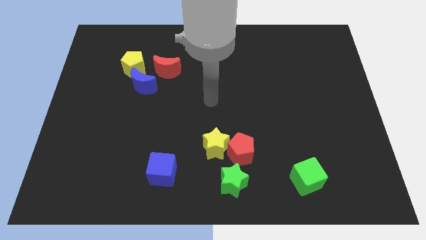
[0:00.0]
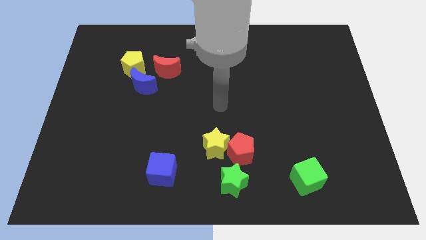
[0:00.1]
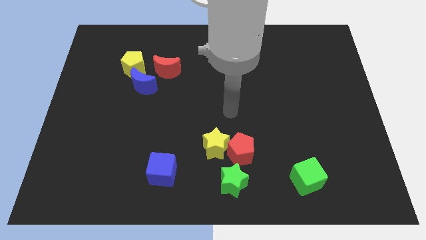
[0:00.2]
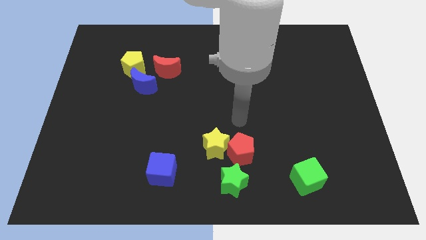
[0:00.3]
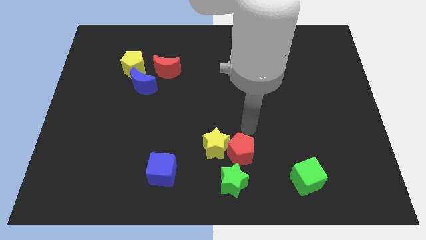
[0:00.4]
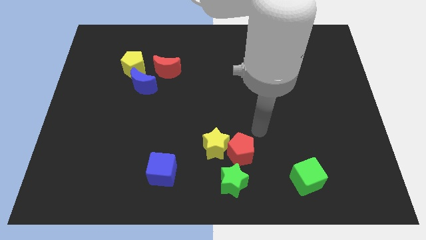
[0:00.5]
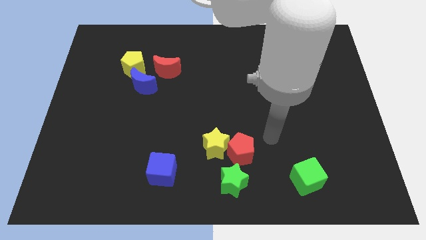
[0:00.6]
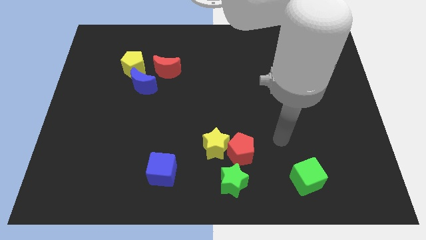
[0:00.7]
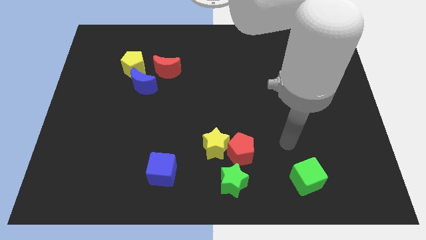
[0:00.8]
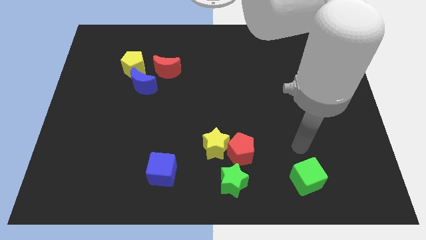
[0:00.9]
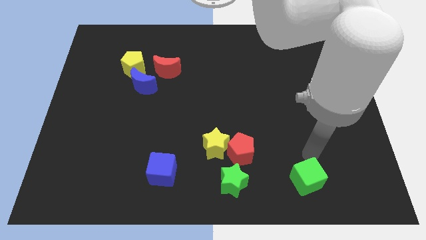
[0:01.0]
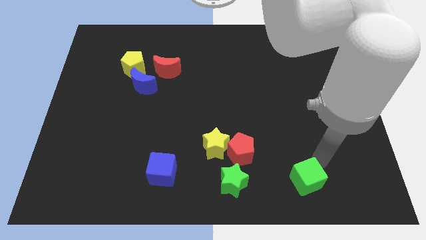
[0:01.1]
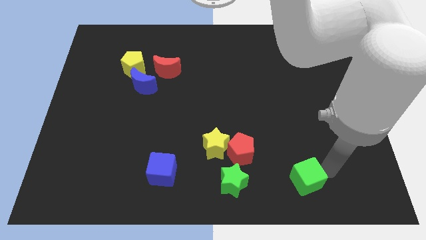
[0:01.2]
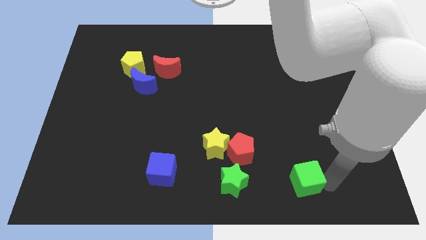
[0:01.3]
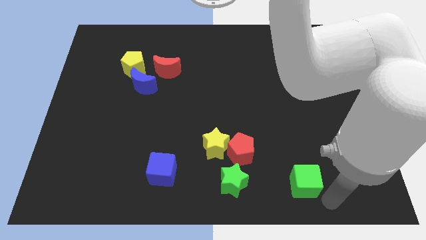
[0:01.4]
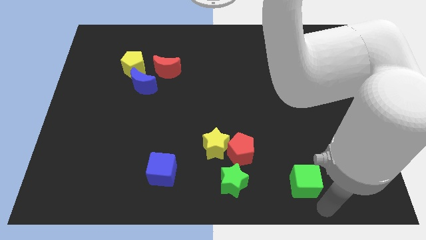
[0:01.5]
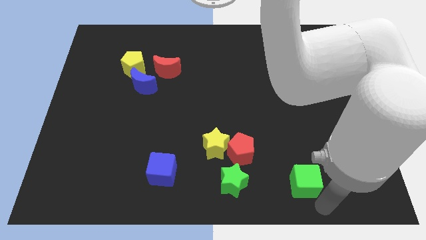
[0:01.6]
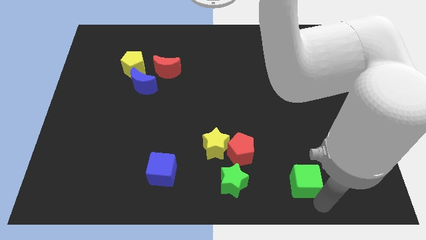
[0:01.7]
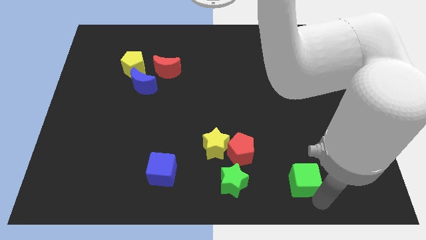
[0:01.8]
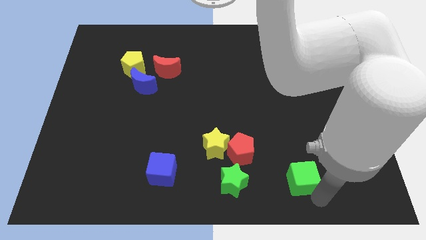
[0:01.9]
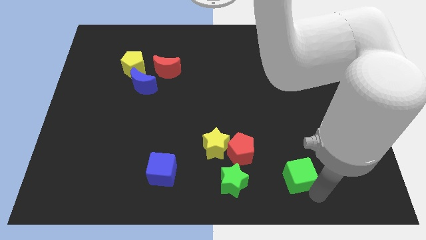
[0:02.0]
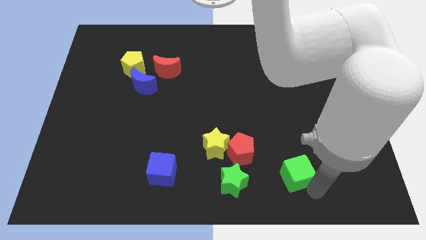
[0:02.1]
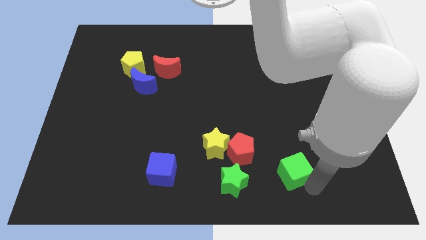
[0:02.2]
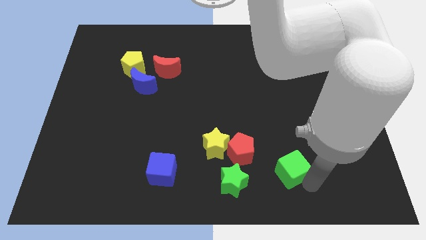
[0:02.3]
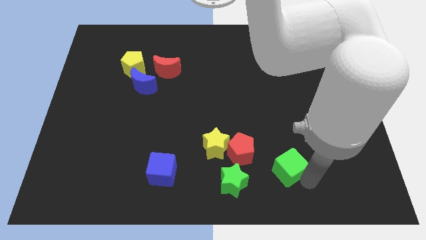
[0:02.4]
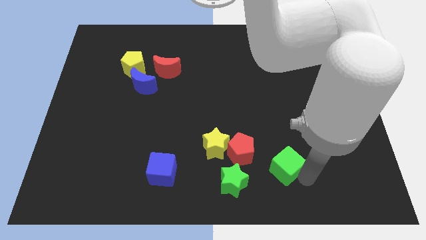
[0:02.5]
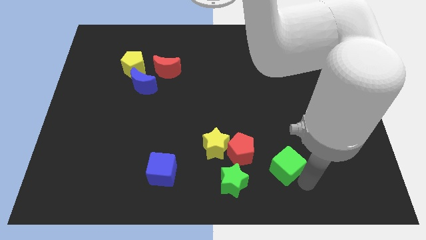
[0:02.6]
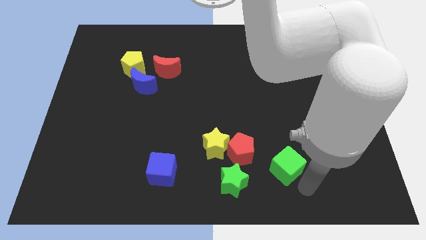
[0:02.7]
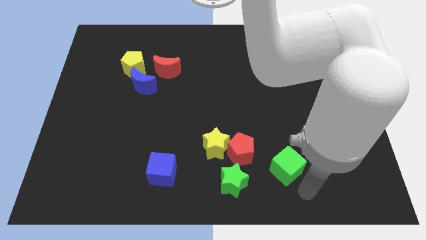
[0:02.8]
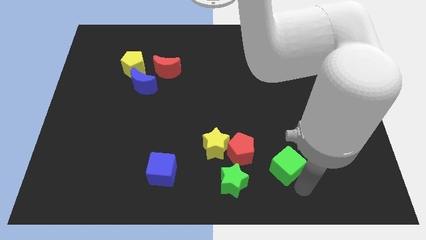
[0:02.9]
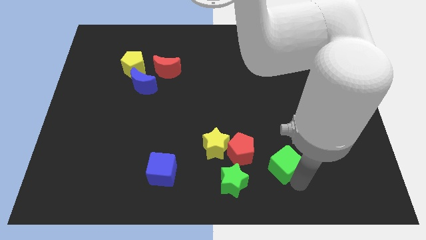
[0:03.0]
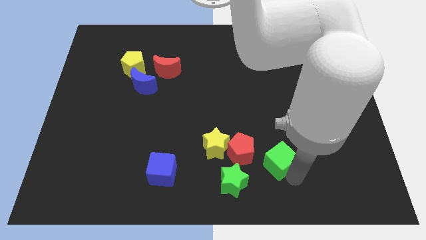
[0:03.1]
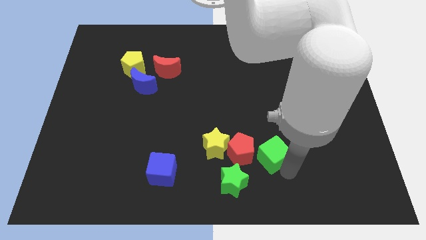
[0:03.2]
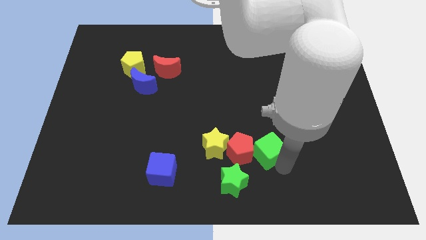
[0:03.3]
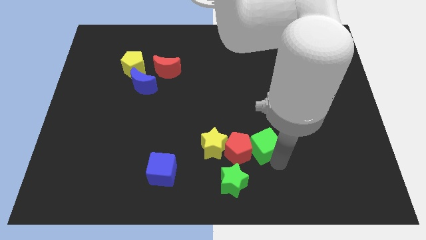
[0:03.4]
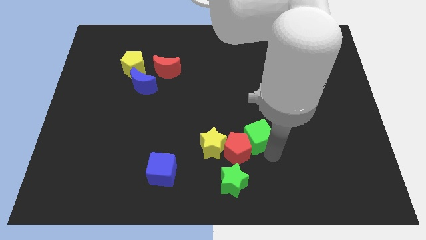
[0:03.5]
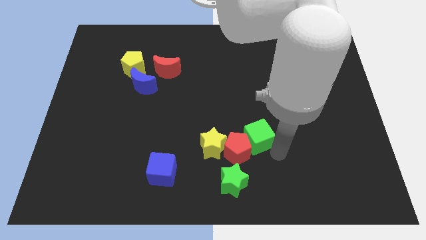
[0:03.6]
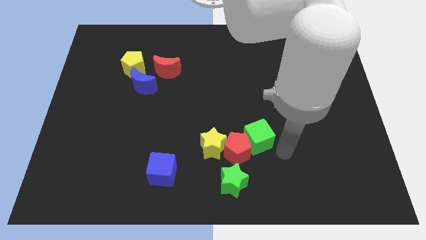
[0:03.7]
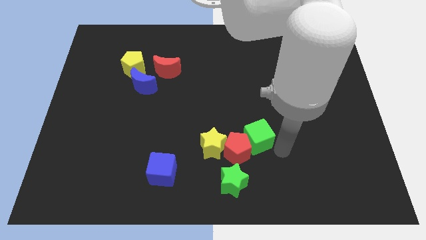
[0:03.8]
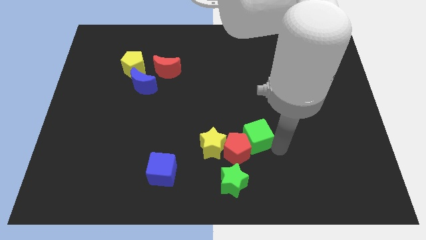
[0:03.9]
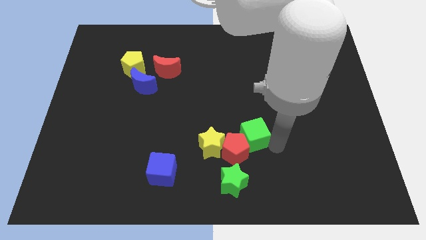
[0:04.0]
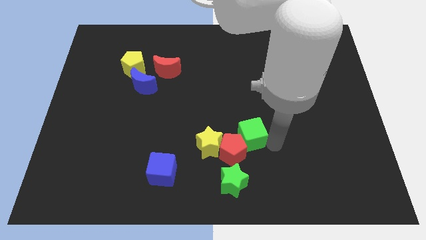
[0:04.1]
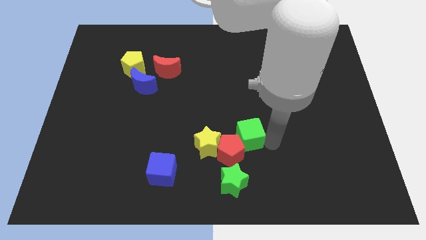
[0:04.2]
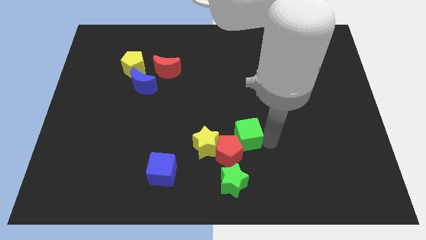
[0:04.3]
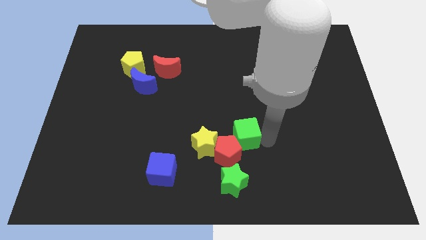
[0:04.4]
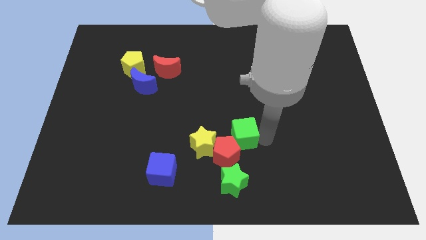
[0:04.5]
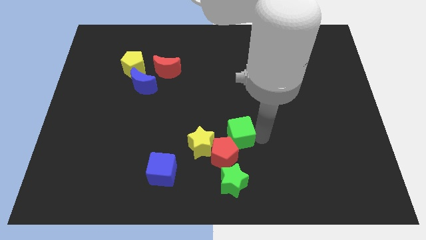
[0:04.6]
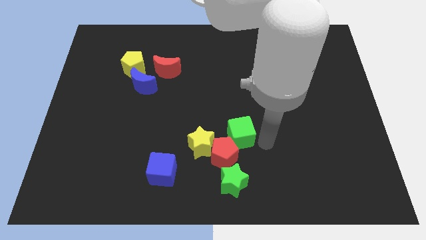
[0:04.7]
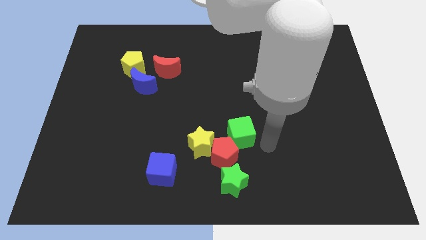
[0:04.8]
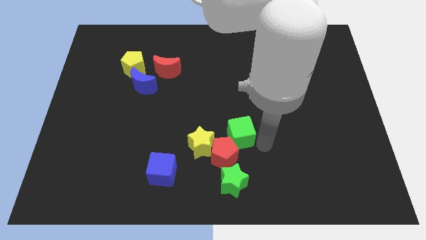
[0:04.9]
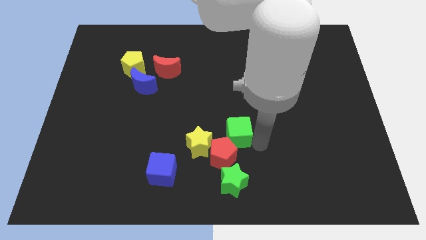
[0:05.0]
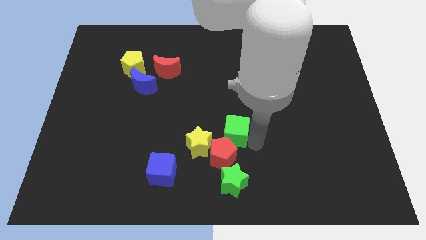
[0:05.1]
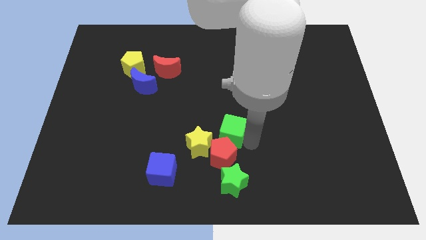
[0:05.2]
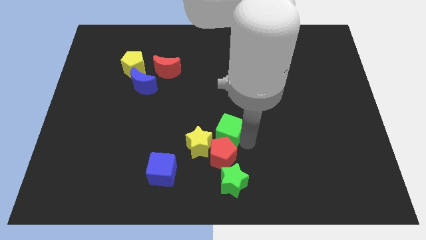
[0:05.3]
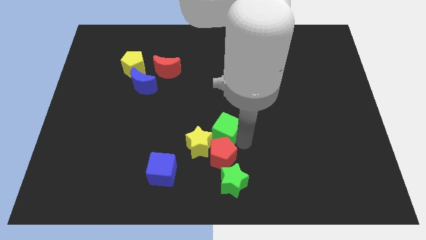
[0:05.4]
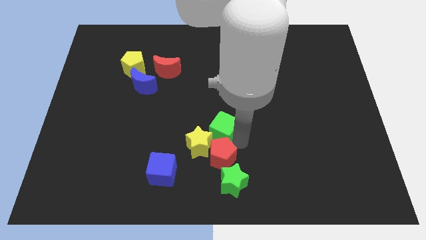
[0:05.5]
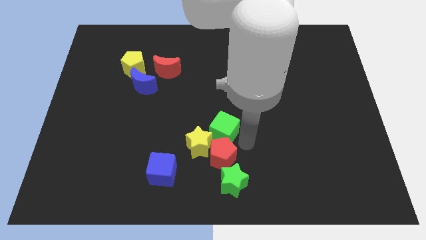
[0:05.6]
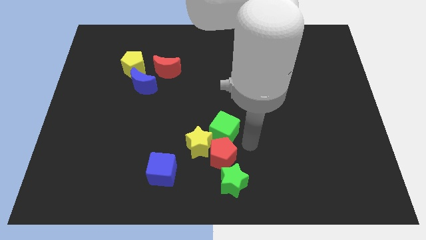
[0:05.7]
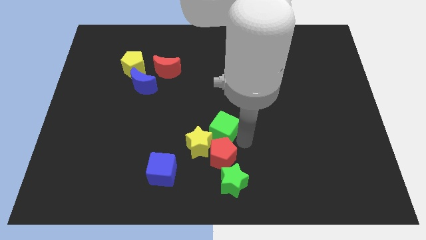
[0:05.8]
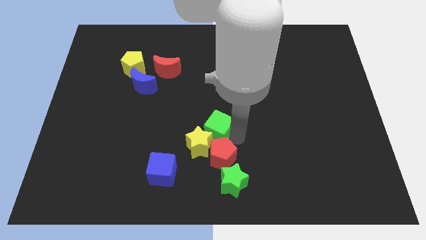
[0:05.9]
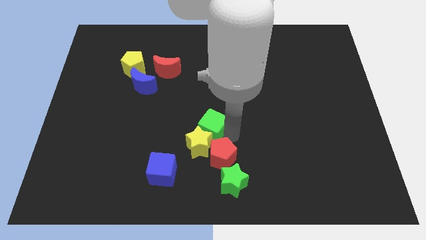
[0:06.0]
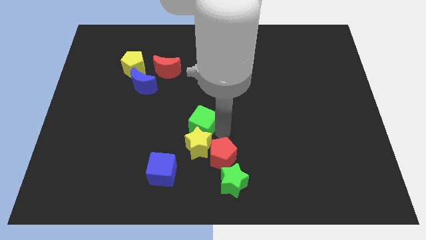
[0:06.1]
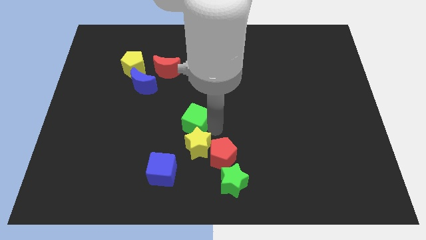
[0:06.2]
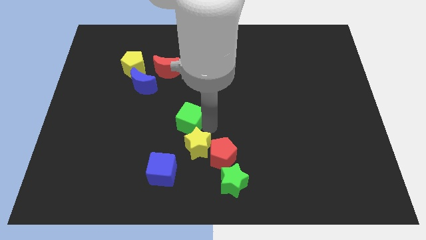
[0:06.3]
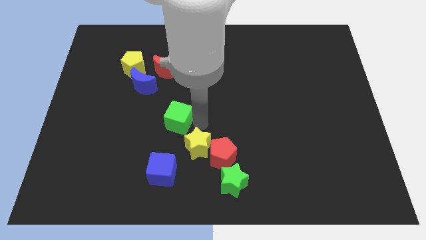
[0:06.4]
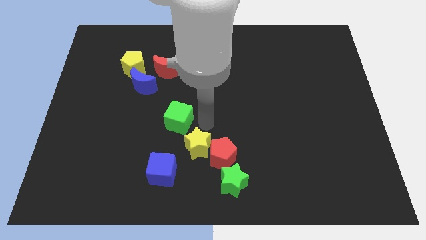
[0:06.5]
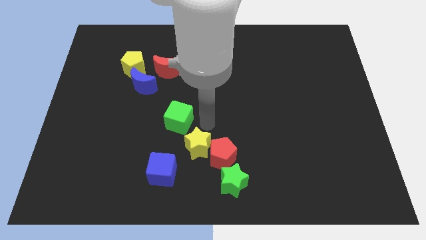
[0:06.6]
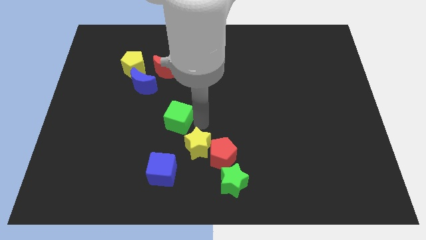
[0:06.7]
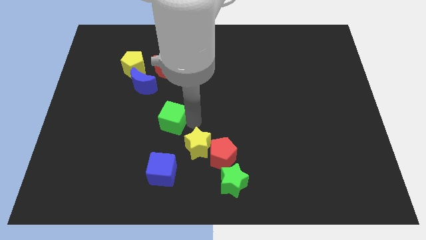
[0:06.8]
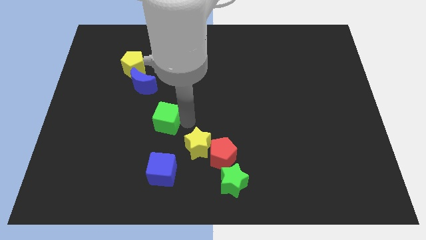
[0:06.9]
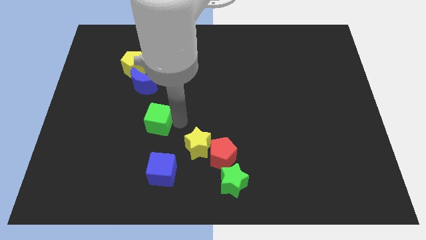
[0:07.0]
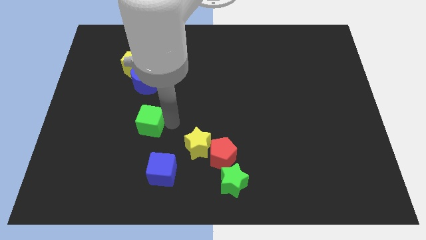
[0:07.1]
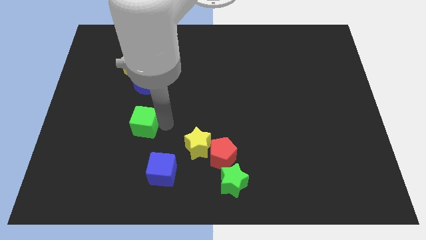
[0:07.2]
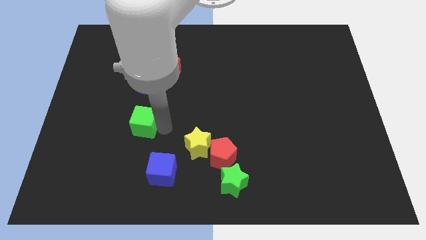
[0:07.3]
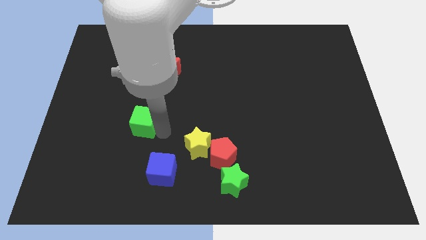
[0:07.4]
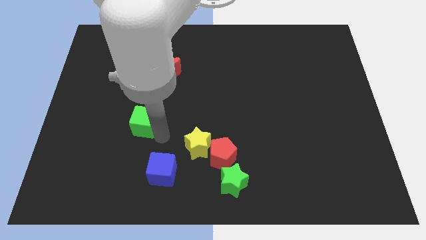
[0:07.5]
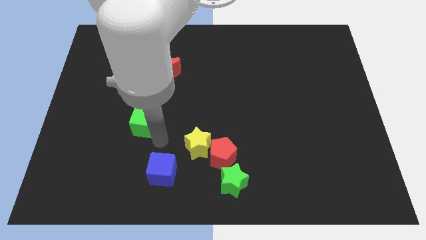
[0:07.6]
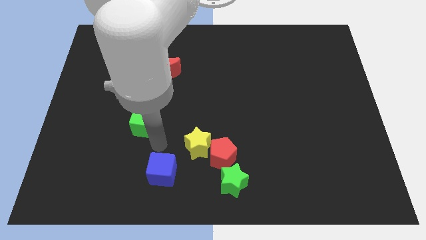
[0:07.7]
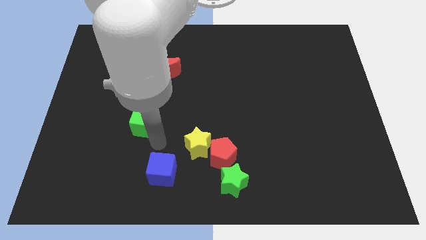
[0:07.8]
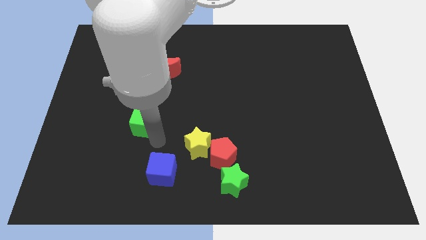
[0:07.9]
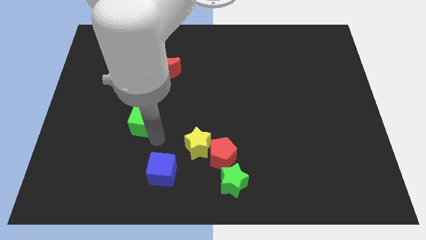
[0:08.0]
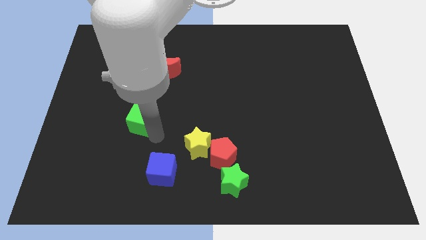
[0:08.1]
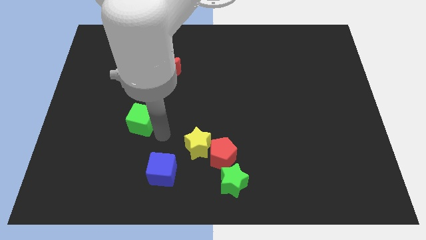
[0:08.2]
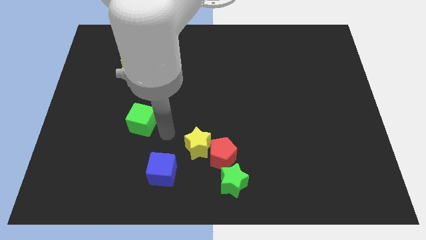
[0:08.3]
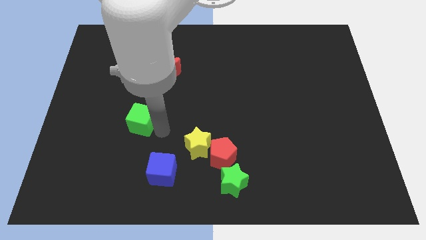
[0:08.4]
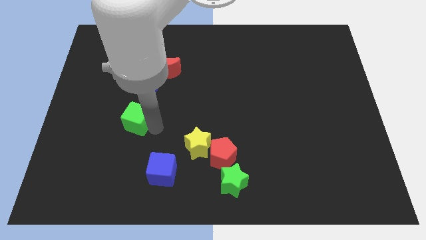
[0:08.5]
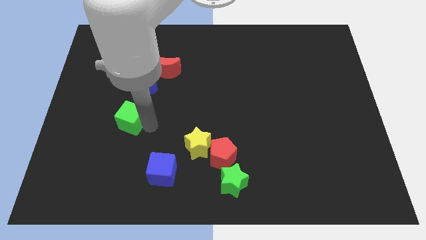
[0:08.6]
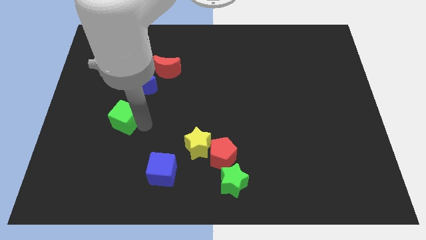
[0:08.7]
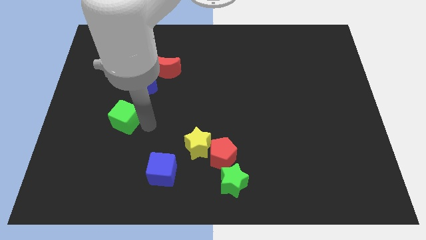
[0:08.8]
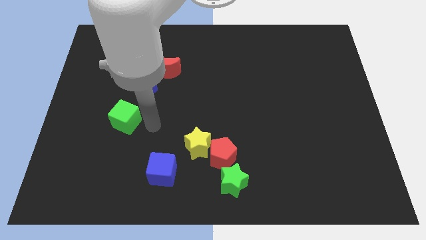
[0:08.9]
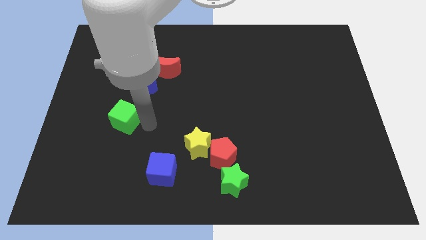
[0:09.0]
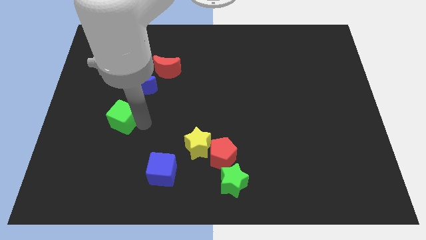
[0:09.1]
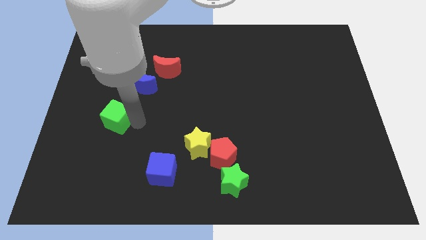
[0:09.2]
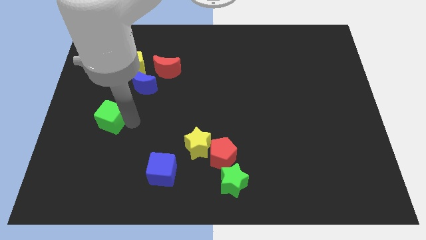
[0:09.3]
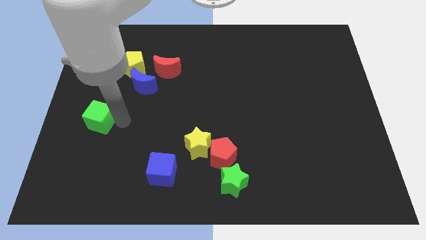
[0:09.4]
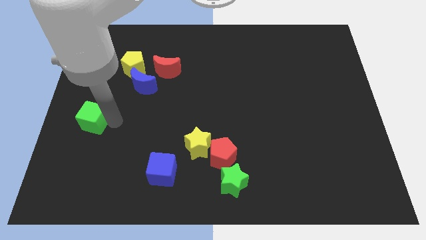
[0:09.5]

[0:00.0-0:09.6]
put the green cube to the center left
